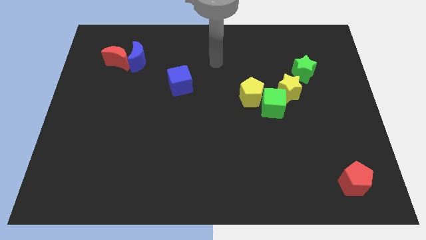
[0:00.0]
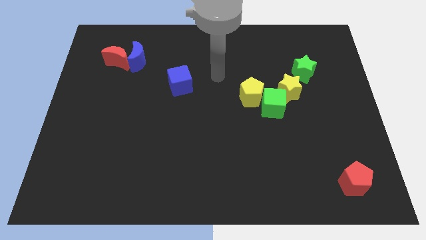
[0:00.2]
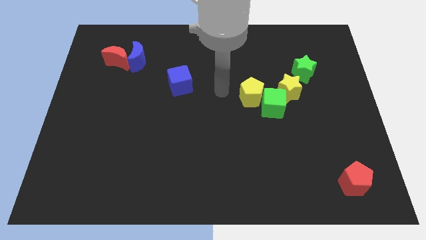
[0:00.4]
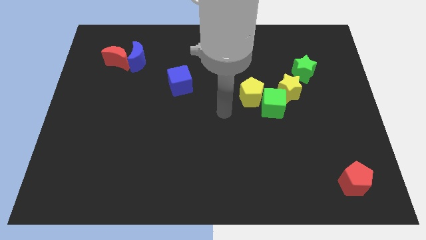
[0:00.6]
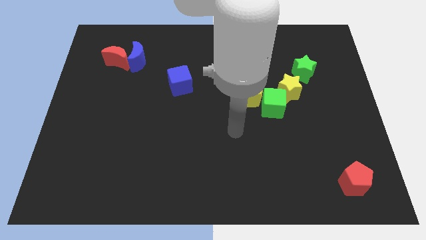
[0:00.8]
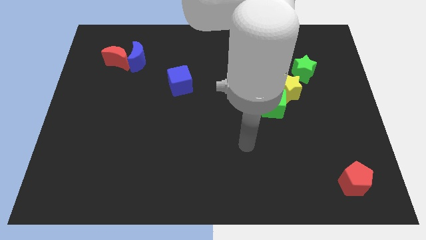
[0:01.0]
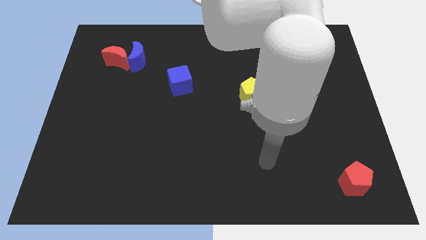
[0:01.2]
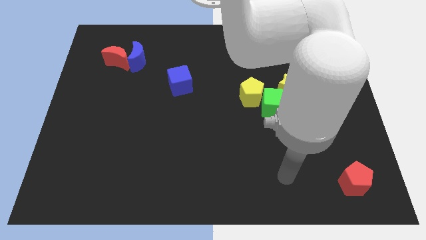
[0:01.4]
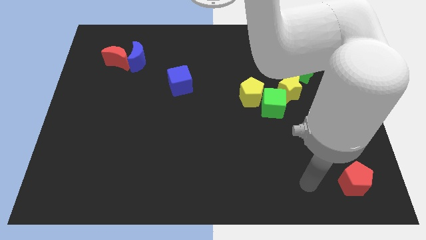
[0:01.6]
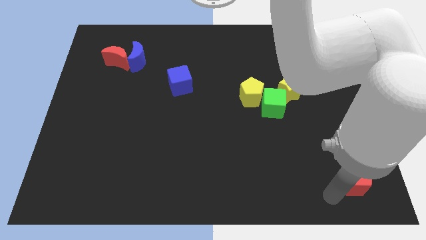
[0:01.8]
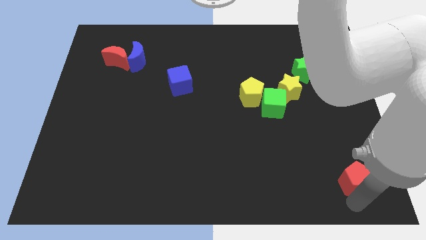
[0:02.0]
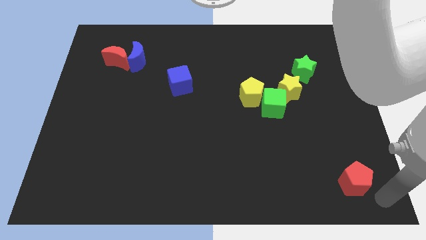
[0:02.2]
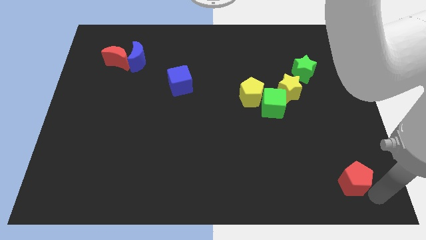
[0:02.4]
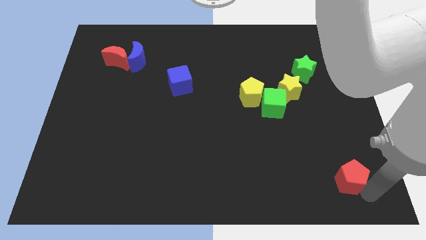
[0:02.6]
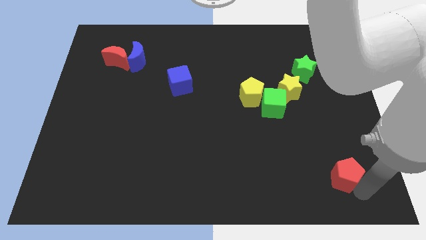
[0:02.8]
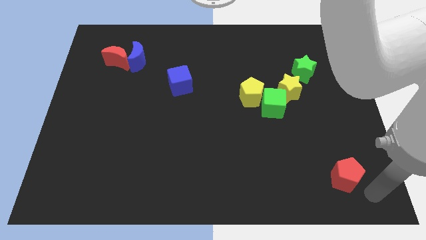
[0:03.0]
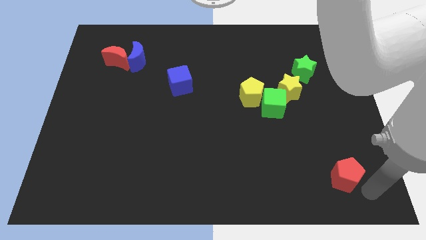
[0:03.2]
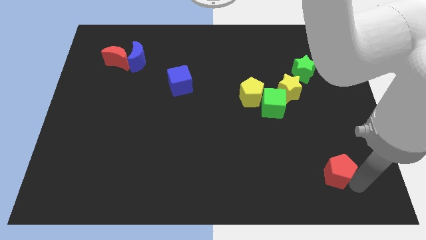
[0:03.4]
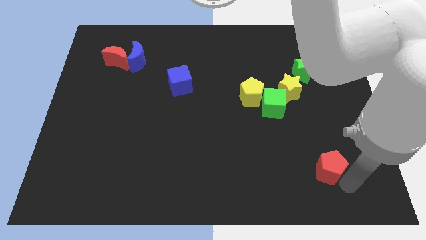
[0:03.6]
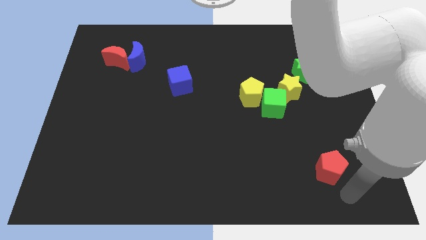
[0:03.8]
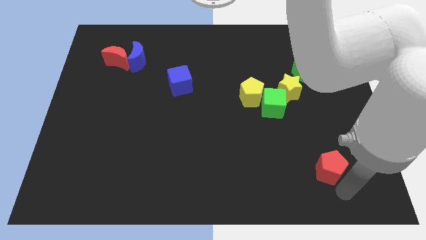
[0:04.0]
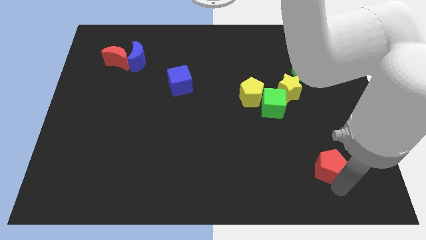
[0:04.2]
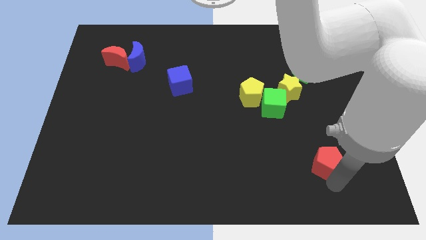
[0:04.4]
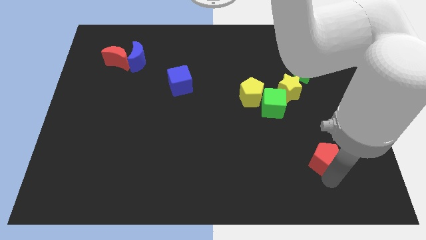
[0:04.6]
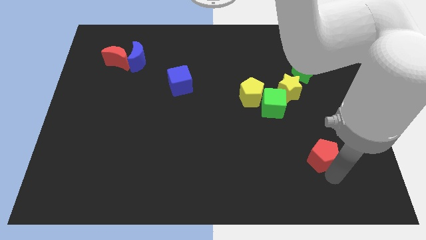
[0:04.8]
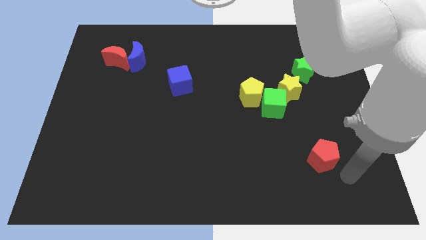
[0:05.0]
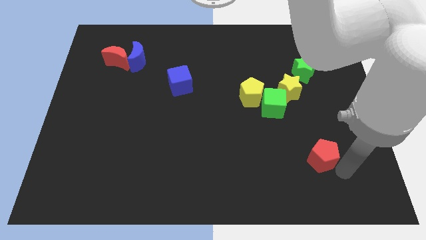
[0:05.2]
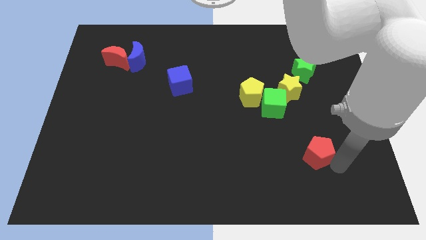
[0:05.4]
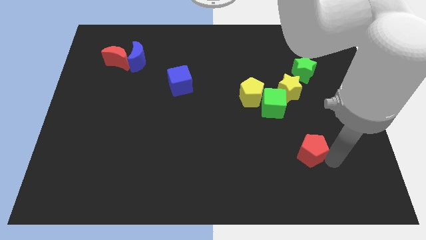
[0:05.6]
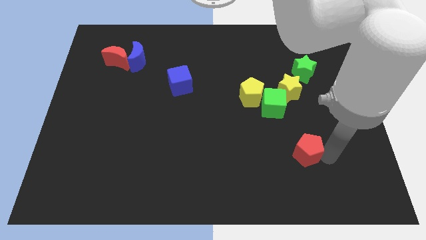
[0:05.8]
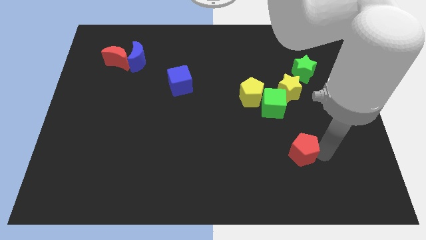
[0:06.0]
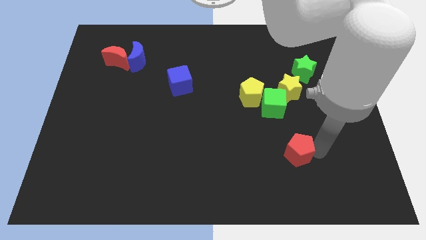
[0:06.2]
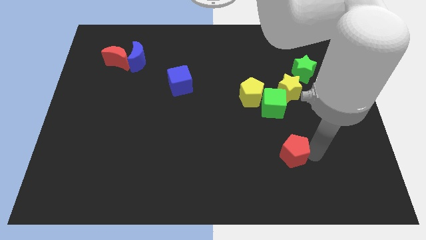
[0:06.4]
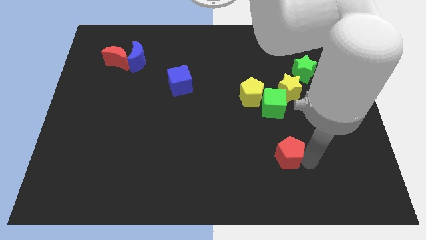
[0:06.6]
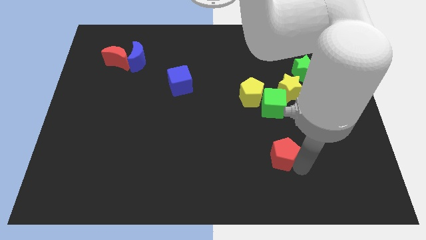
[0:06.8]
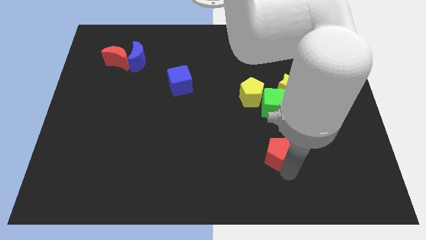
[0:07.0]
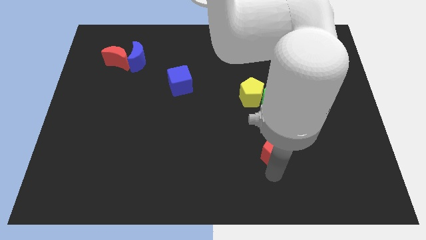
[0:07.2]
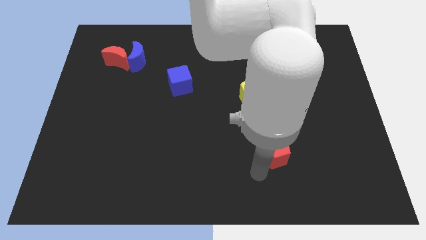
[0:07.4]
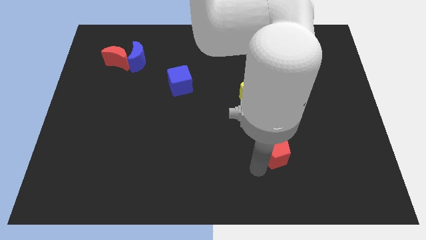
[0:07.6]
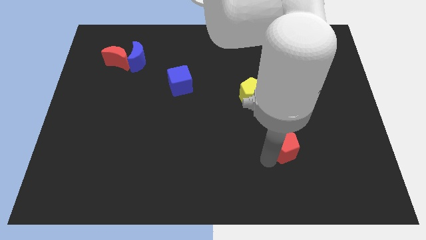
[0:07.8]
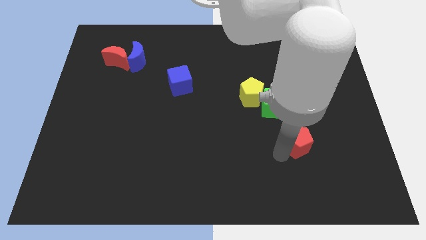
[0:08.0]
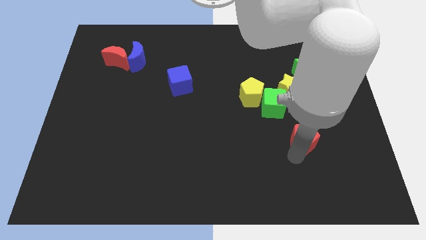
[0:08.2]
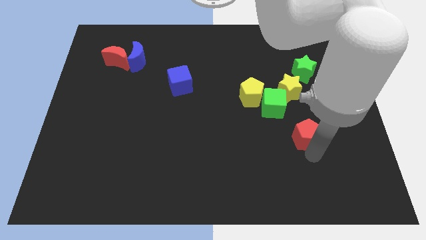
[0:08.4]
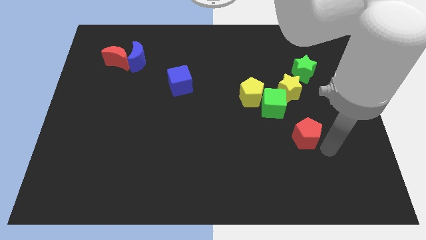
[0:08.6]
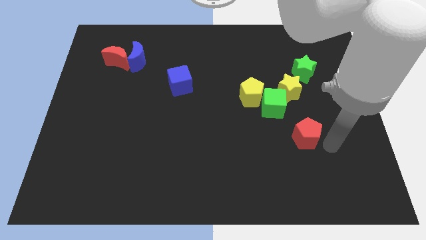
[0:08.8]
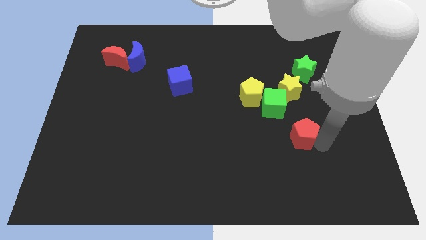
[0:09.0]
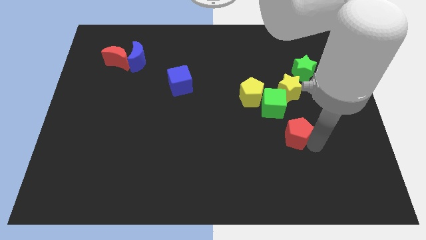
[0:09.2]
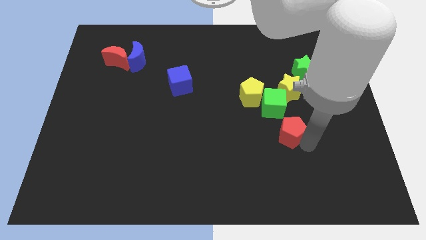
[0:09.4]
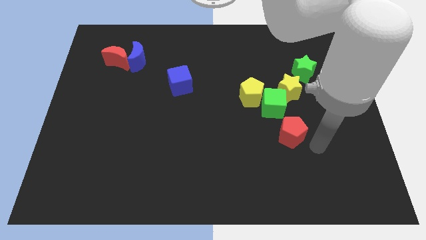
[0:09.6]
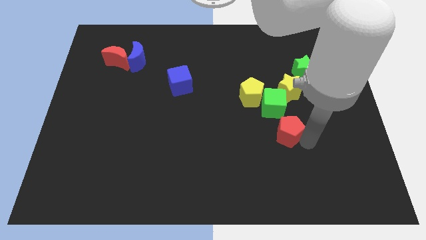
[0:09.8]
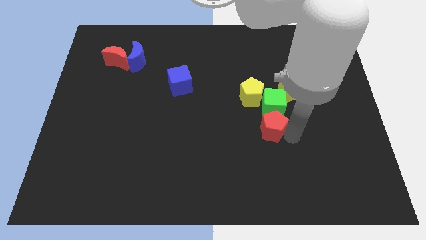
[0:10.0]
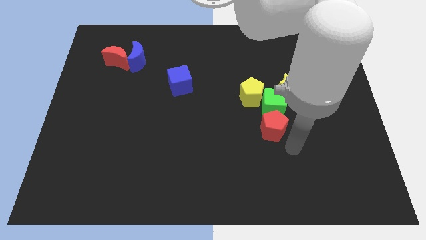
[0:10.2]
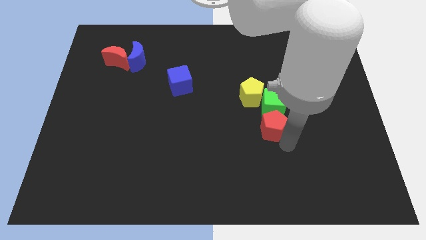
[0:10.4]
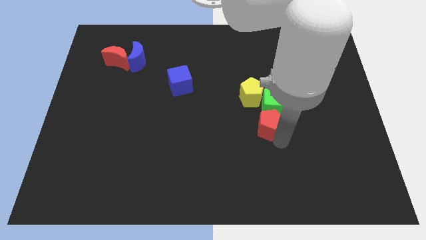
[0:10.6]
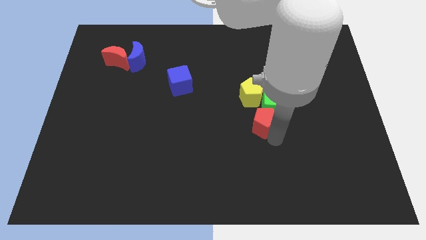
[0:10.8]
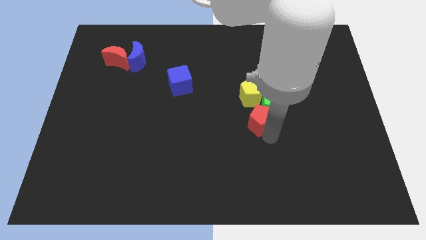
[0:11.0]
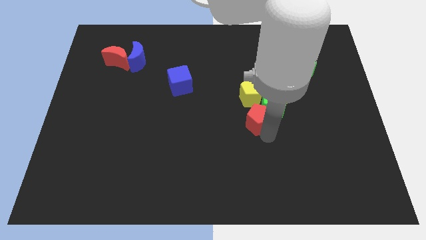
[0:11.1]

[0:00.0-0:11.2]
slide the red pentagon just left of the green cube

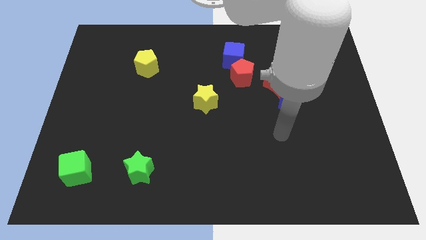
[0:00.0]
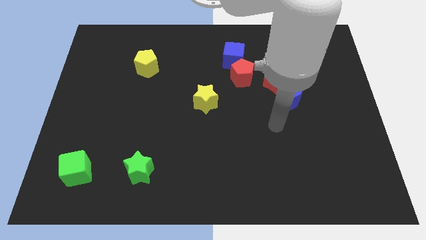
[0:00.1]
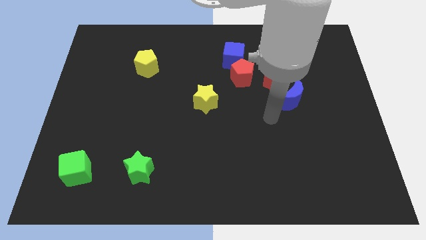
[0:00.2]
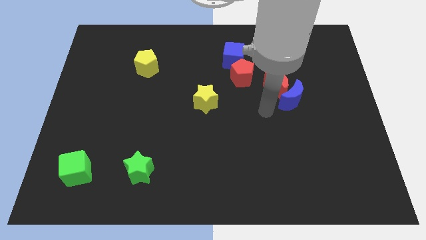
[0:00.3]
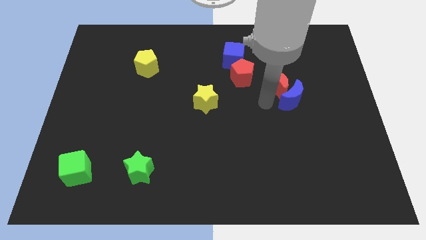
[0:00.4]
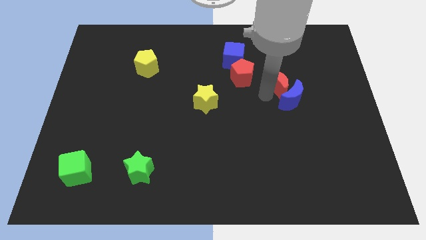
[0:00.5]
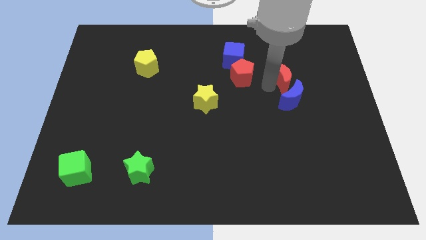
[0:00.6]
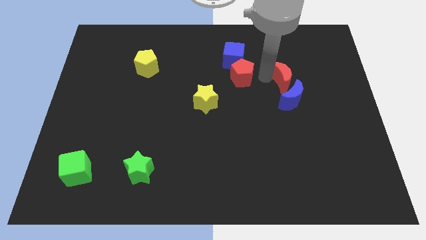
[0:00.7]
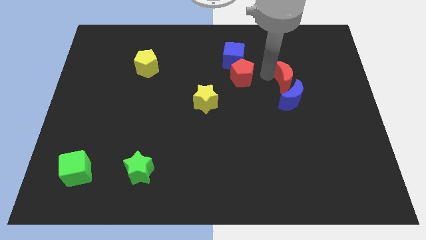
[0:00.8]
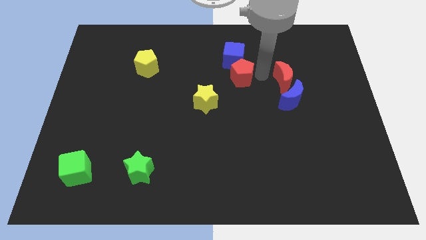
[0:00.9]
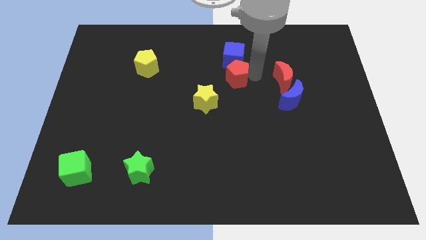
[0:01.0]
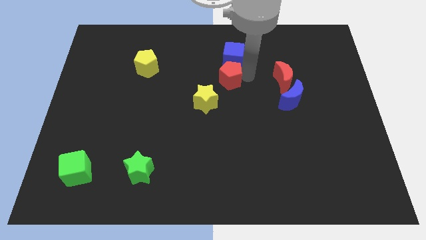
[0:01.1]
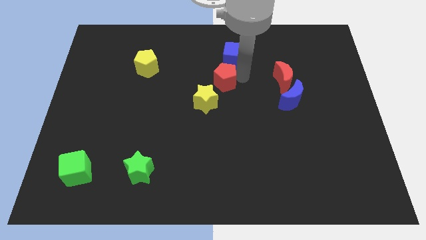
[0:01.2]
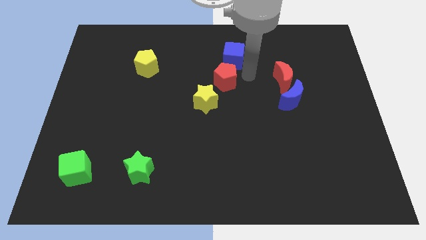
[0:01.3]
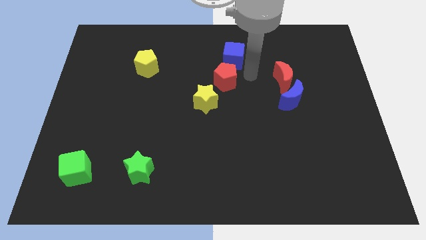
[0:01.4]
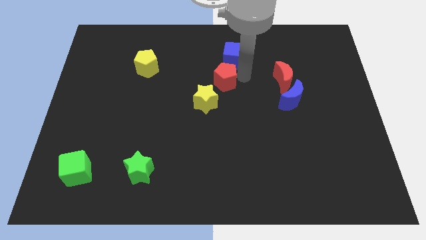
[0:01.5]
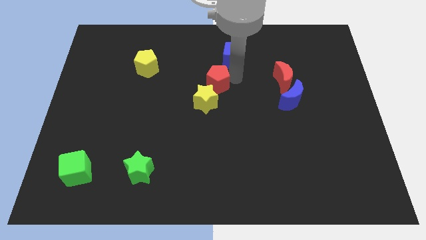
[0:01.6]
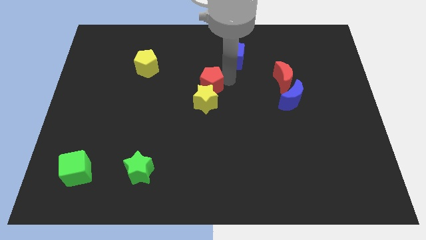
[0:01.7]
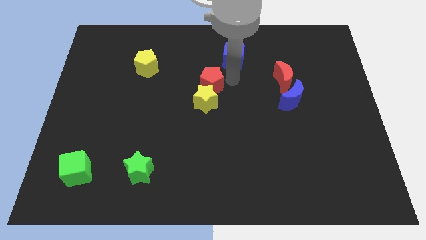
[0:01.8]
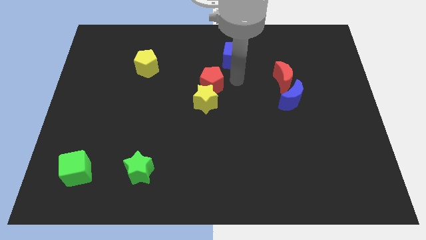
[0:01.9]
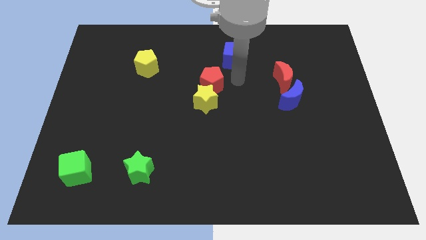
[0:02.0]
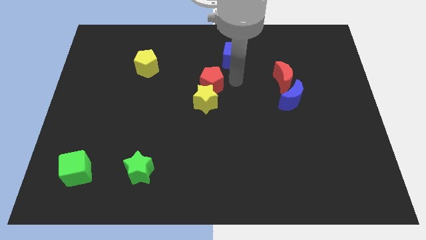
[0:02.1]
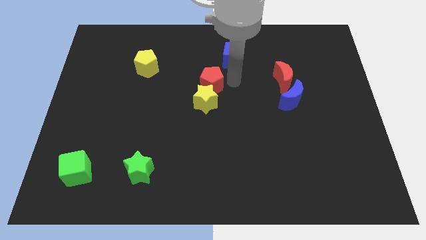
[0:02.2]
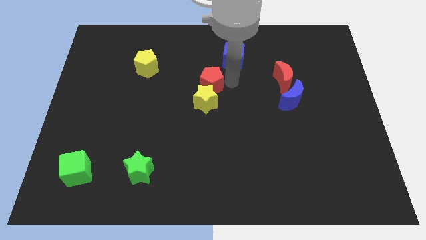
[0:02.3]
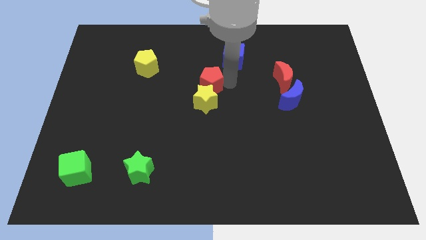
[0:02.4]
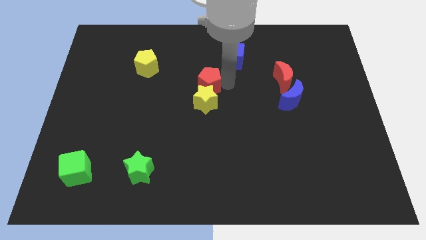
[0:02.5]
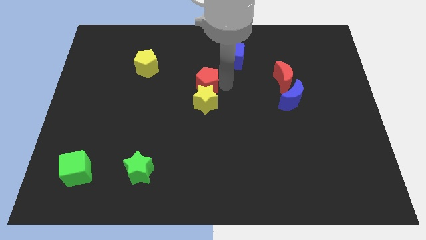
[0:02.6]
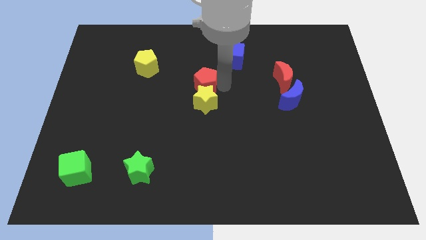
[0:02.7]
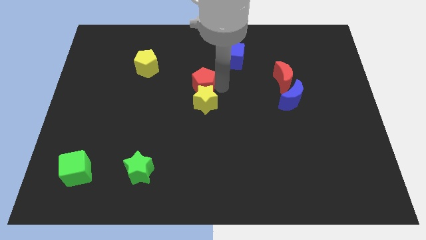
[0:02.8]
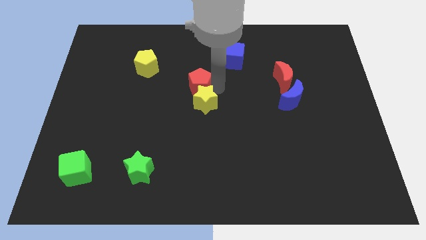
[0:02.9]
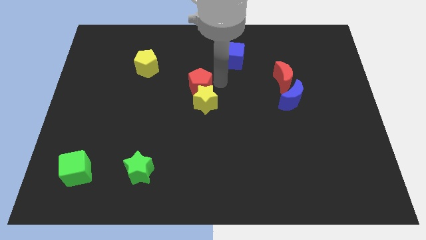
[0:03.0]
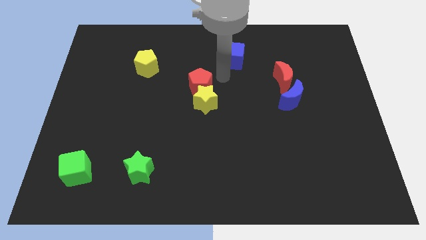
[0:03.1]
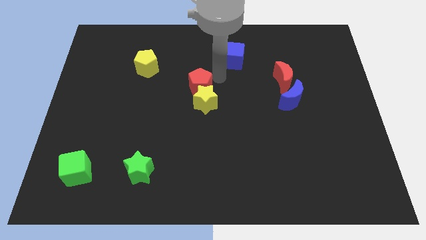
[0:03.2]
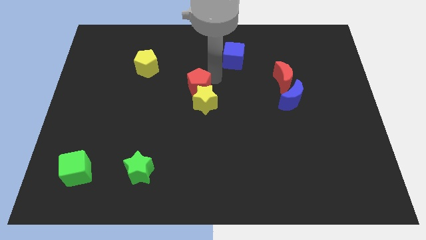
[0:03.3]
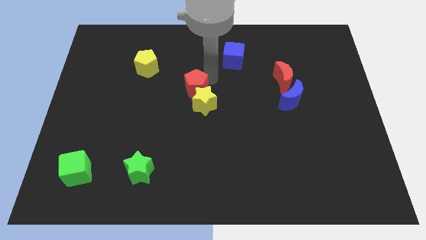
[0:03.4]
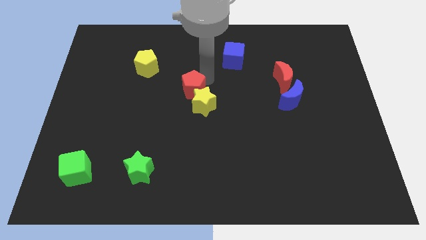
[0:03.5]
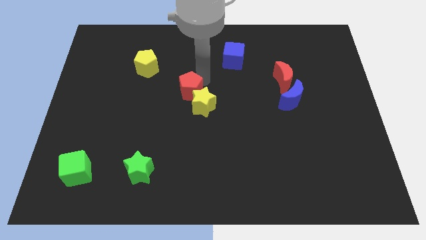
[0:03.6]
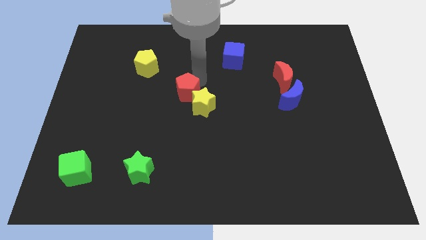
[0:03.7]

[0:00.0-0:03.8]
slide the red pentagon left of the yellow star
